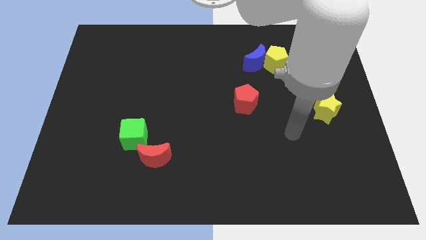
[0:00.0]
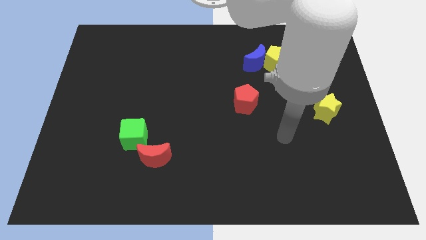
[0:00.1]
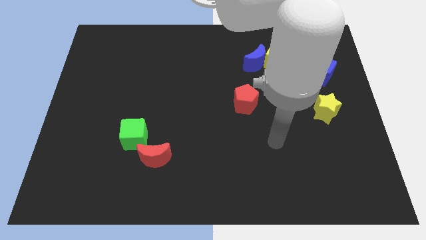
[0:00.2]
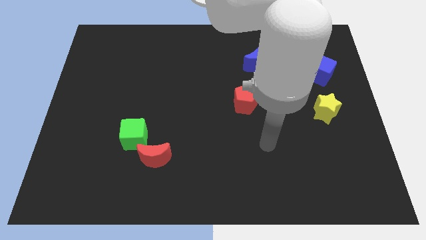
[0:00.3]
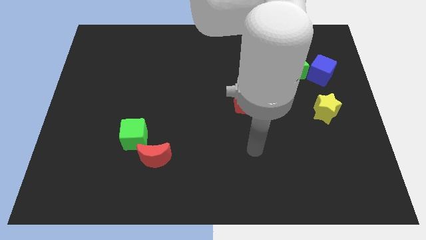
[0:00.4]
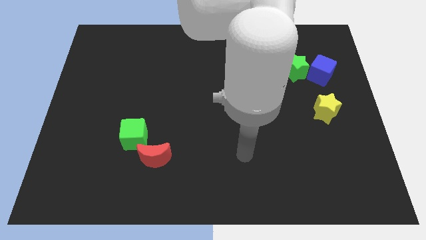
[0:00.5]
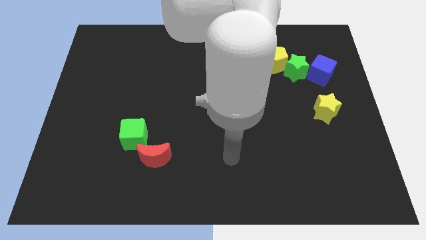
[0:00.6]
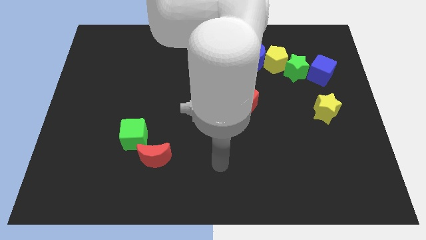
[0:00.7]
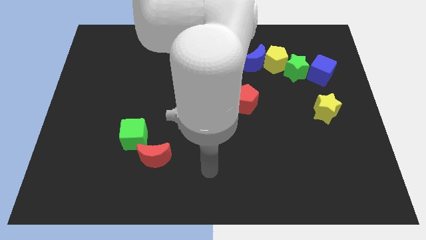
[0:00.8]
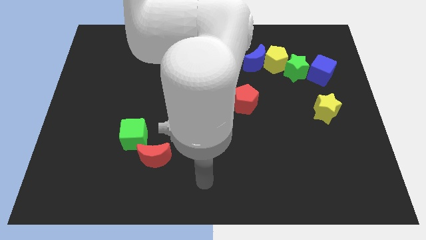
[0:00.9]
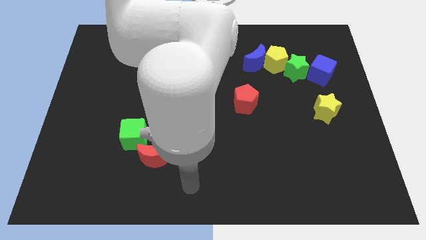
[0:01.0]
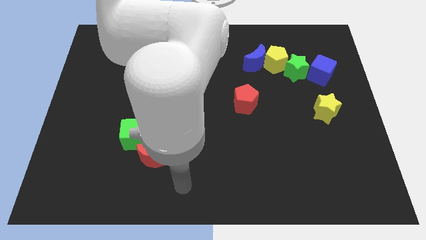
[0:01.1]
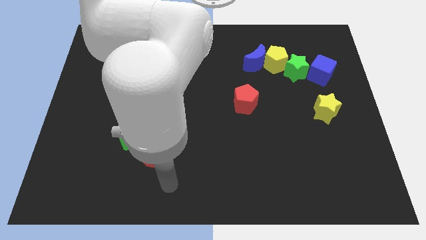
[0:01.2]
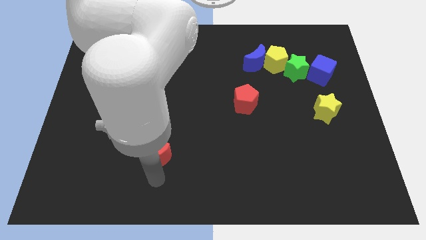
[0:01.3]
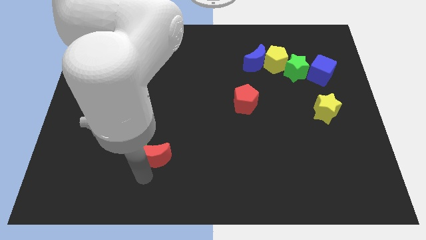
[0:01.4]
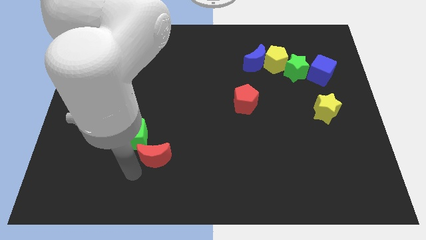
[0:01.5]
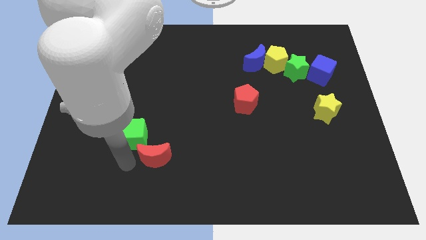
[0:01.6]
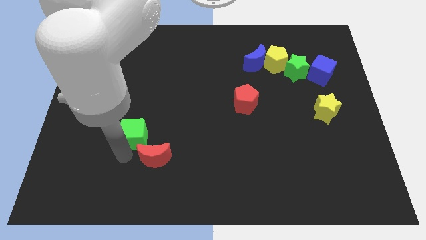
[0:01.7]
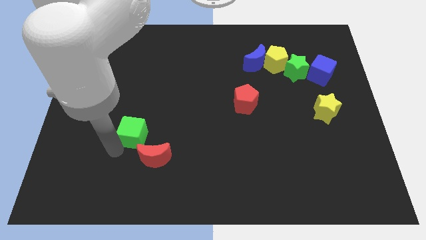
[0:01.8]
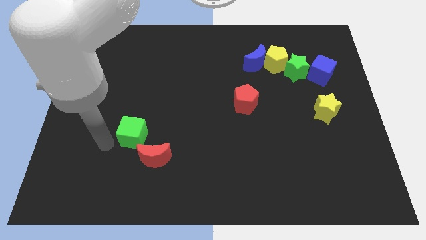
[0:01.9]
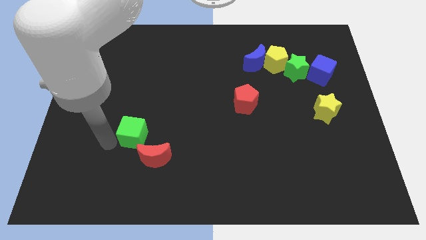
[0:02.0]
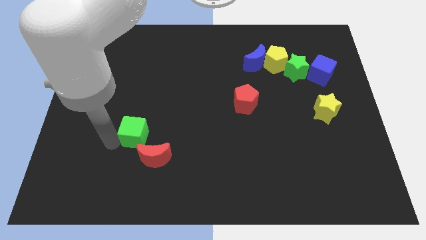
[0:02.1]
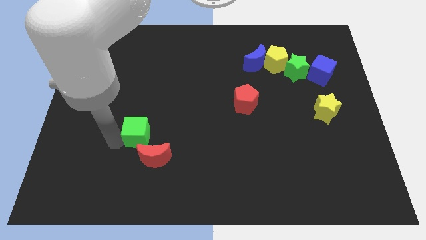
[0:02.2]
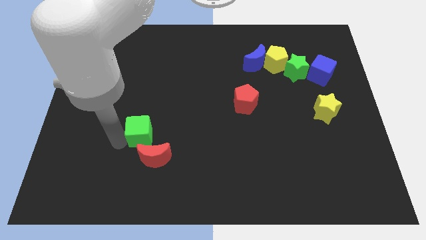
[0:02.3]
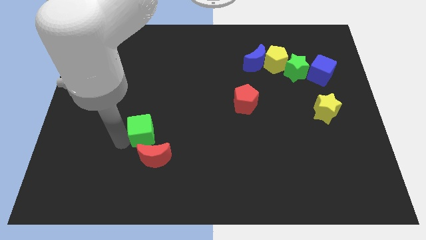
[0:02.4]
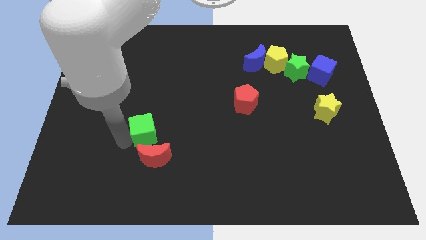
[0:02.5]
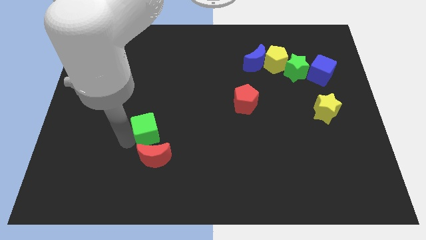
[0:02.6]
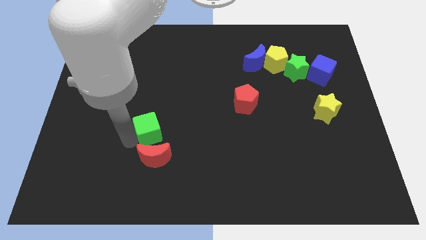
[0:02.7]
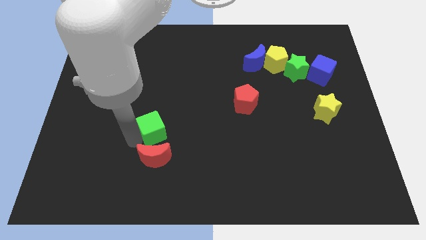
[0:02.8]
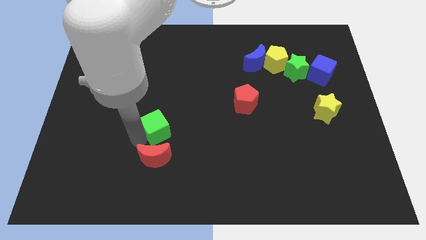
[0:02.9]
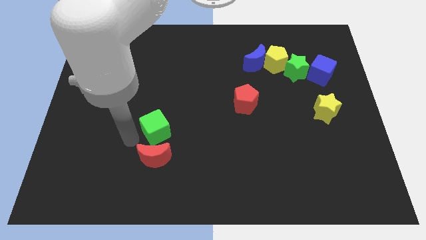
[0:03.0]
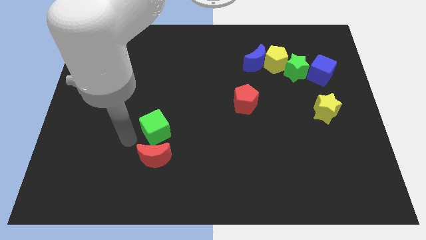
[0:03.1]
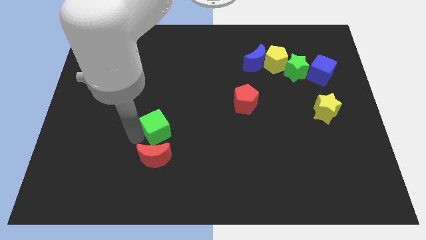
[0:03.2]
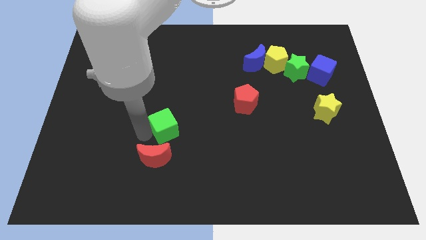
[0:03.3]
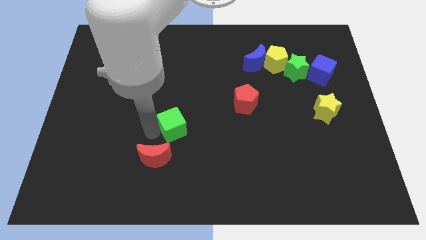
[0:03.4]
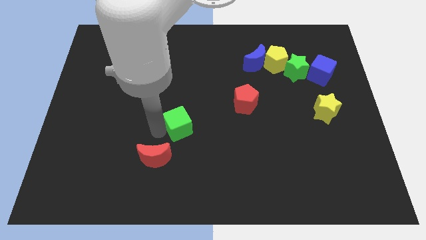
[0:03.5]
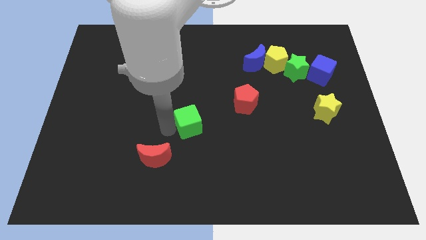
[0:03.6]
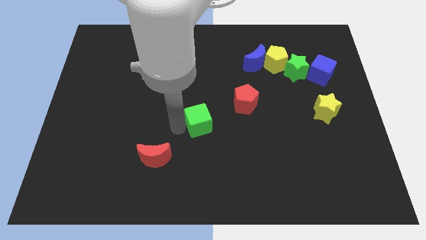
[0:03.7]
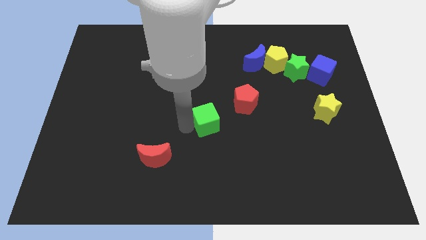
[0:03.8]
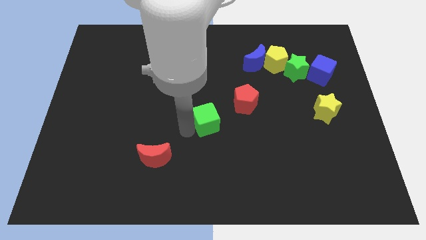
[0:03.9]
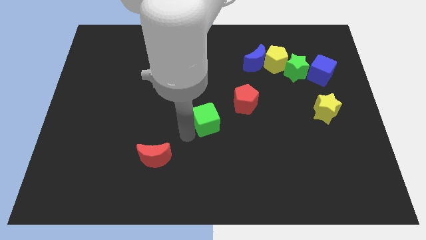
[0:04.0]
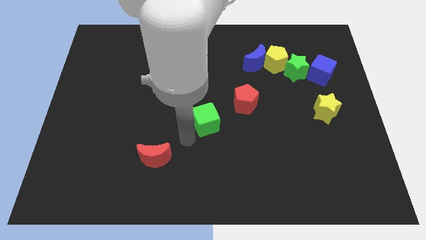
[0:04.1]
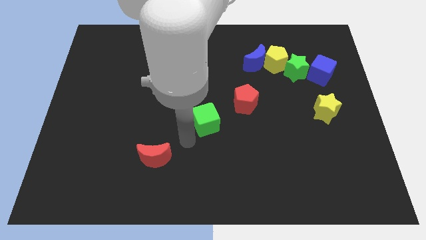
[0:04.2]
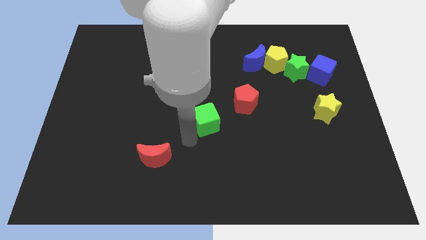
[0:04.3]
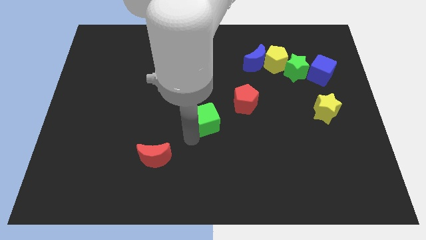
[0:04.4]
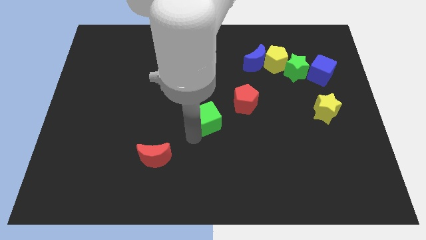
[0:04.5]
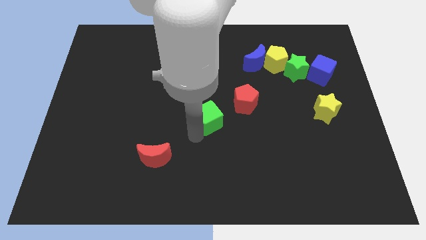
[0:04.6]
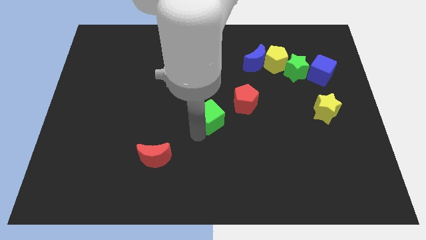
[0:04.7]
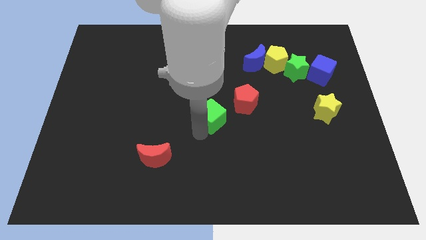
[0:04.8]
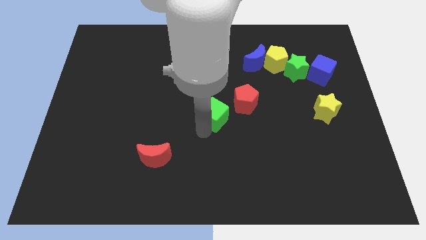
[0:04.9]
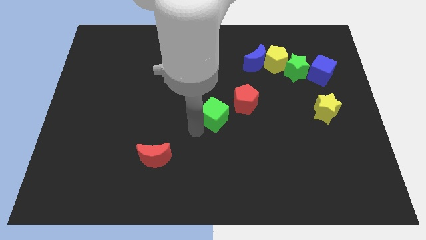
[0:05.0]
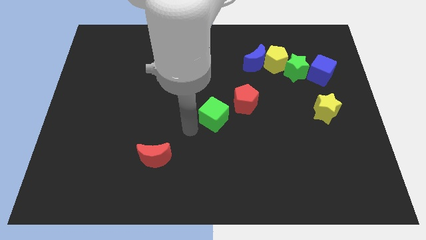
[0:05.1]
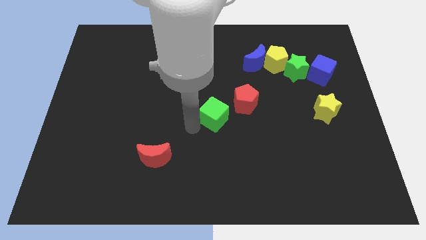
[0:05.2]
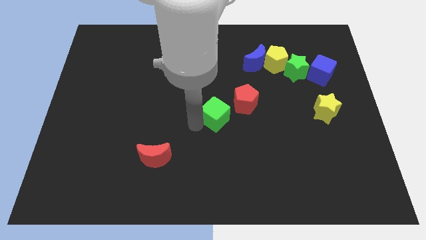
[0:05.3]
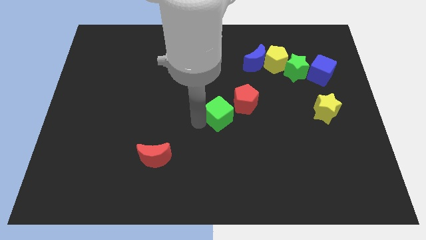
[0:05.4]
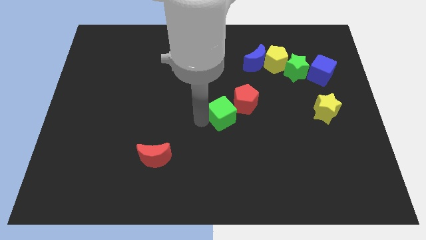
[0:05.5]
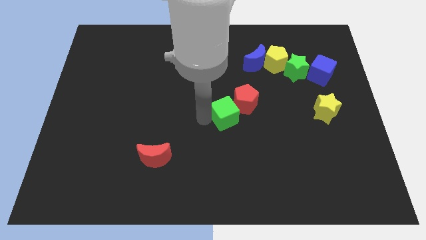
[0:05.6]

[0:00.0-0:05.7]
put the green cube close to the red pentagon

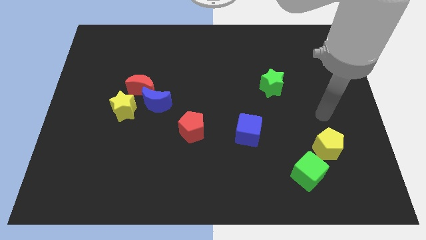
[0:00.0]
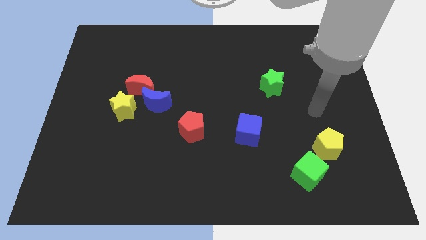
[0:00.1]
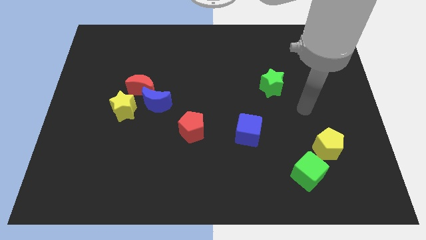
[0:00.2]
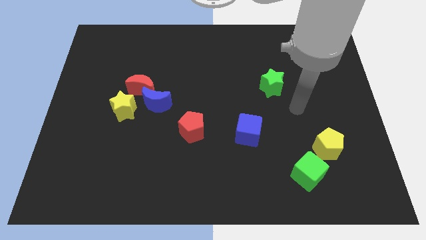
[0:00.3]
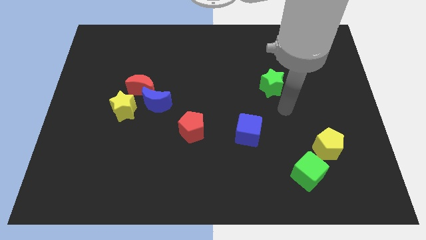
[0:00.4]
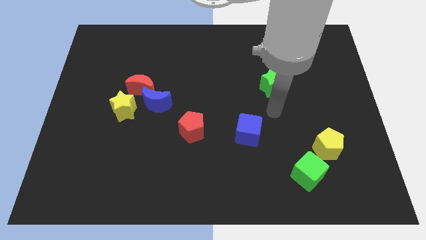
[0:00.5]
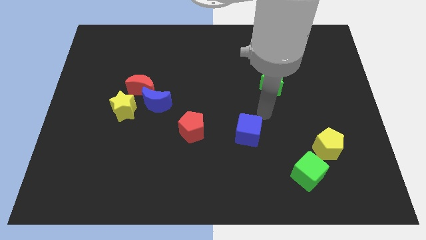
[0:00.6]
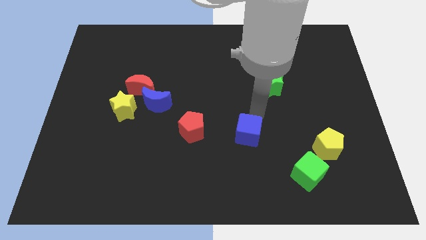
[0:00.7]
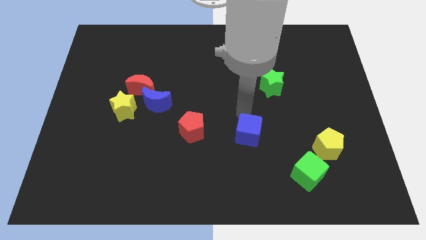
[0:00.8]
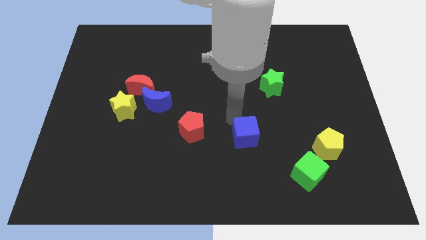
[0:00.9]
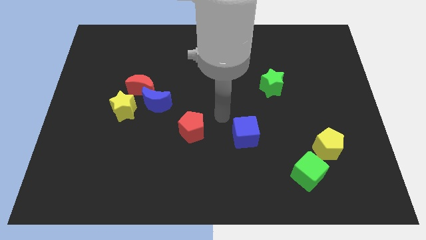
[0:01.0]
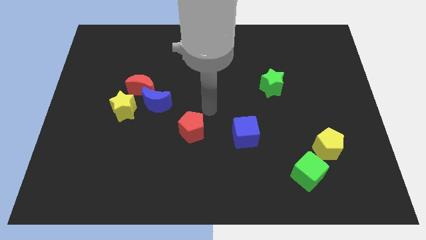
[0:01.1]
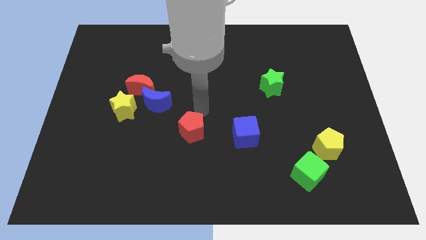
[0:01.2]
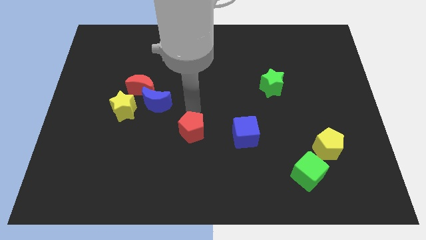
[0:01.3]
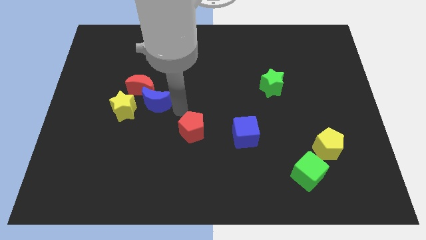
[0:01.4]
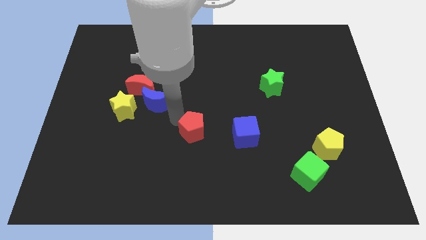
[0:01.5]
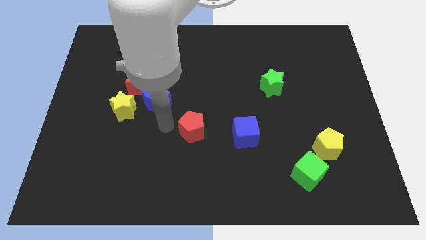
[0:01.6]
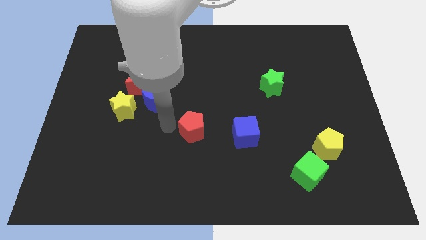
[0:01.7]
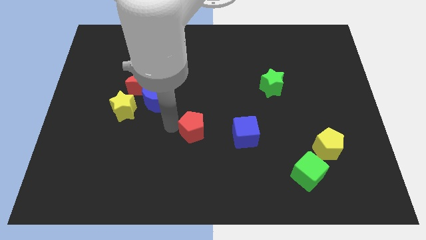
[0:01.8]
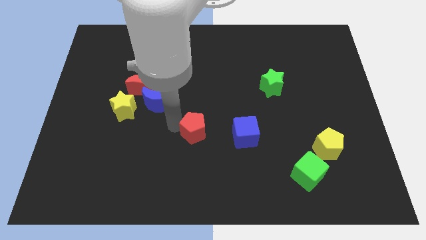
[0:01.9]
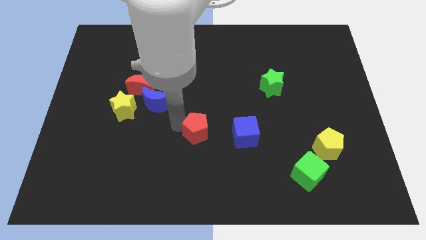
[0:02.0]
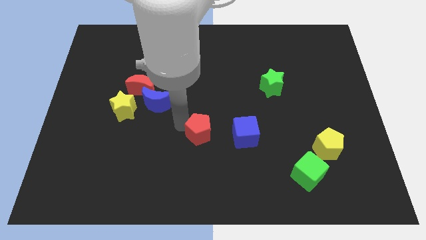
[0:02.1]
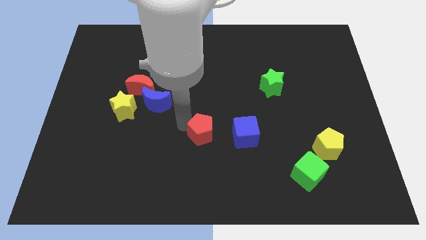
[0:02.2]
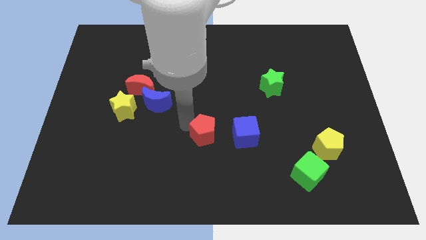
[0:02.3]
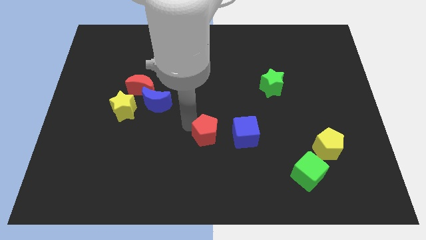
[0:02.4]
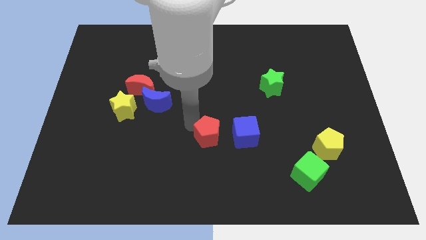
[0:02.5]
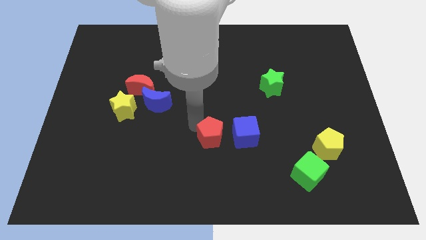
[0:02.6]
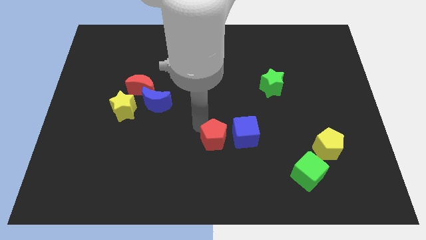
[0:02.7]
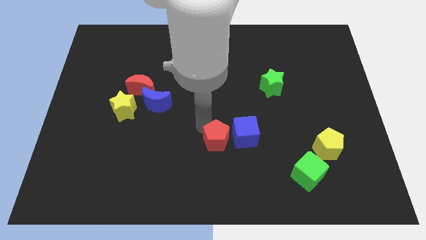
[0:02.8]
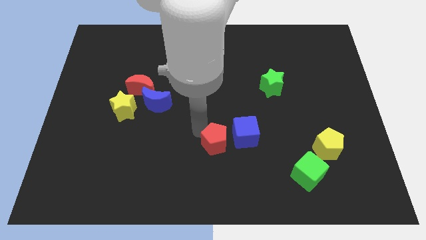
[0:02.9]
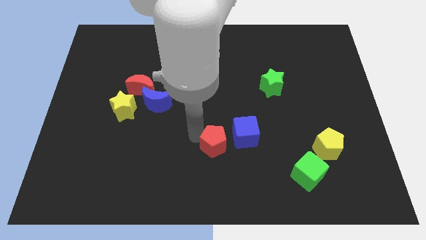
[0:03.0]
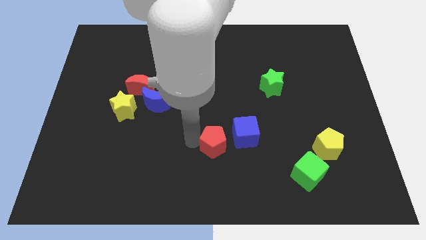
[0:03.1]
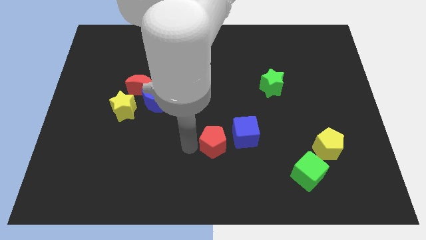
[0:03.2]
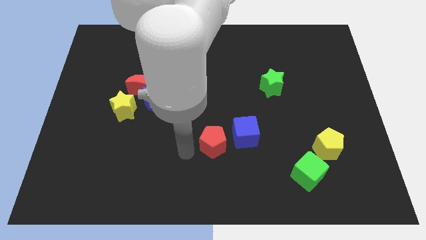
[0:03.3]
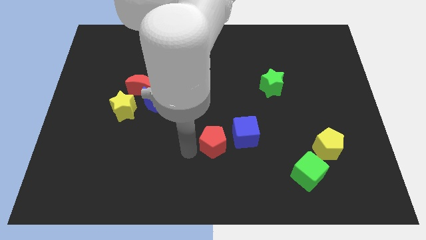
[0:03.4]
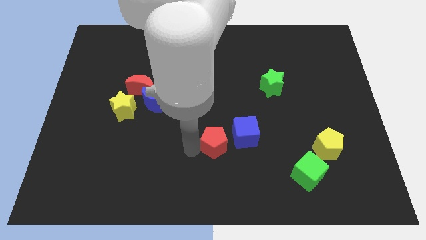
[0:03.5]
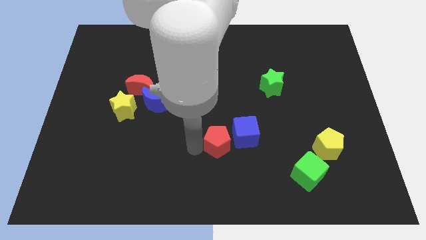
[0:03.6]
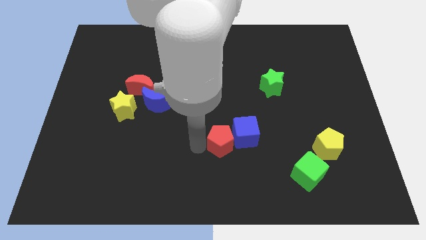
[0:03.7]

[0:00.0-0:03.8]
push the red pentagon next to the blue cube
